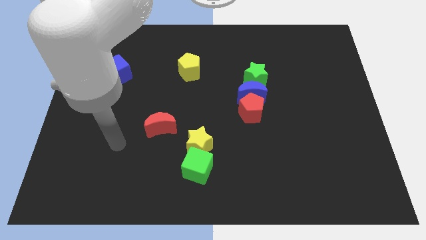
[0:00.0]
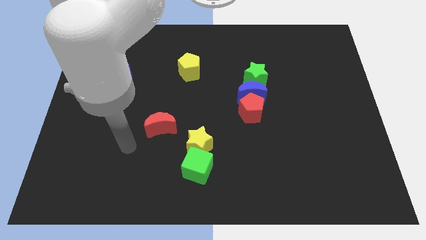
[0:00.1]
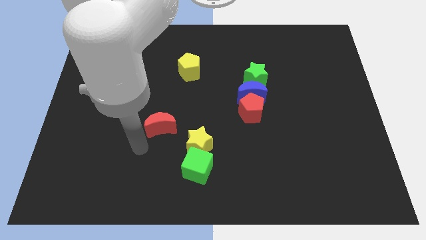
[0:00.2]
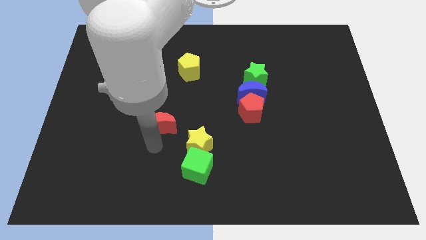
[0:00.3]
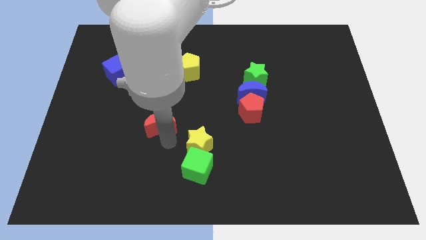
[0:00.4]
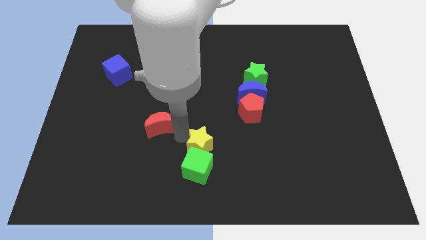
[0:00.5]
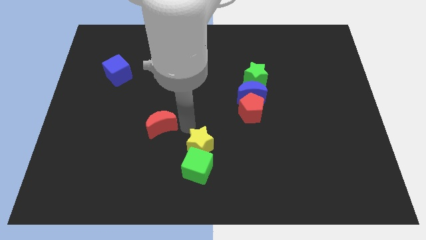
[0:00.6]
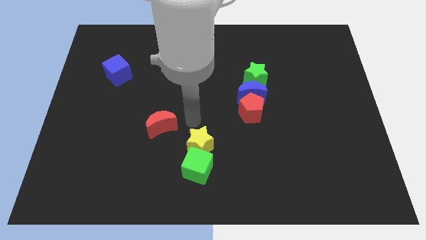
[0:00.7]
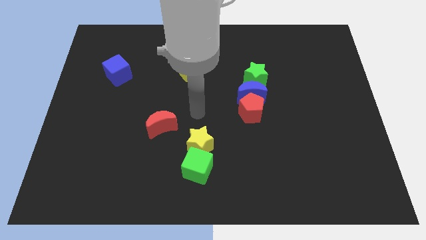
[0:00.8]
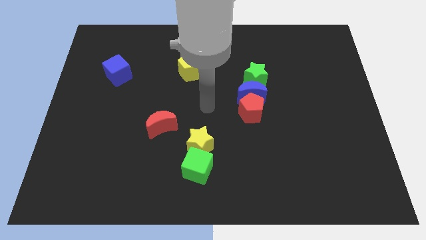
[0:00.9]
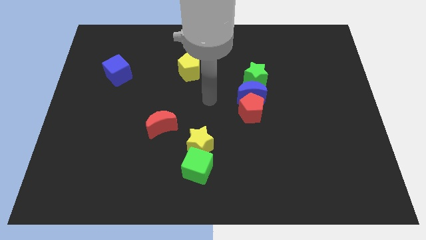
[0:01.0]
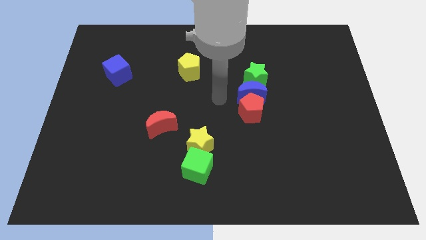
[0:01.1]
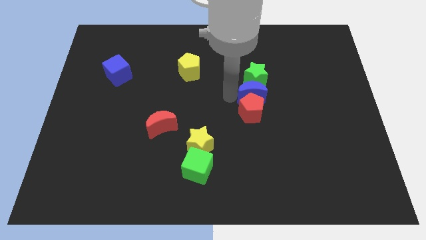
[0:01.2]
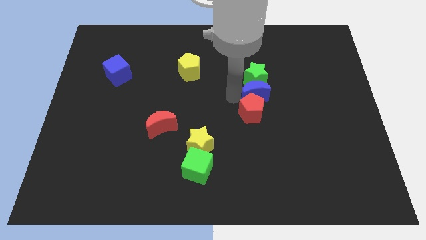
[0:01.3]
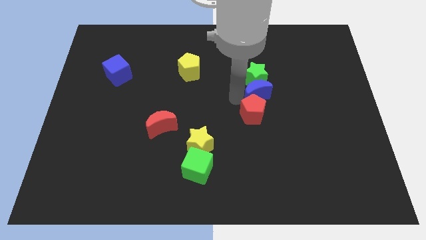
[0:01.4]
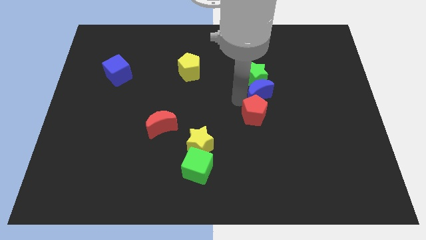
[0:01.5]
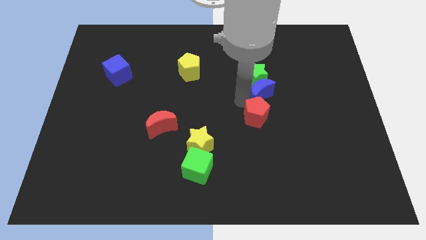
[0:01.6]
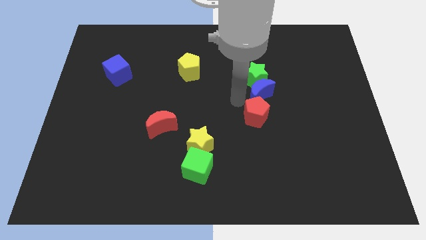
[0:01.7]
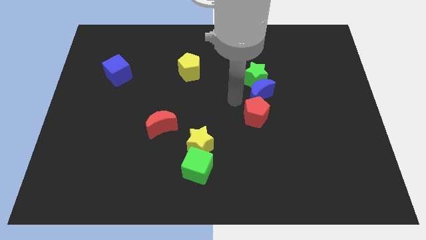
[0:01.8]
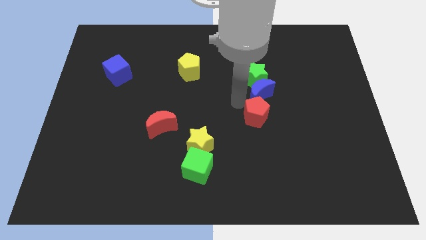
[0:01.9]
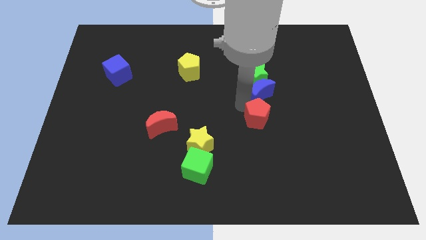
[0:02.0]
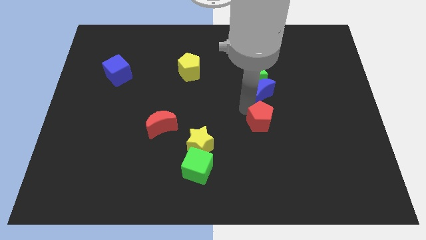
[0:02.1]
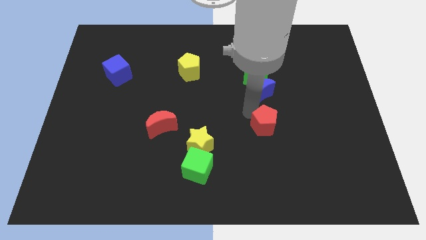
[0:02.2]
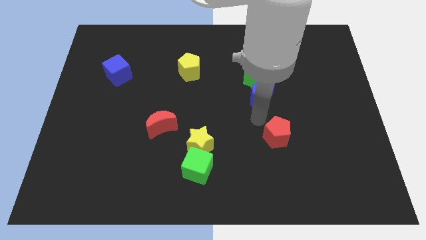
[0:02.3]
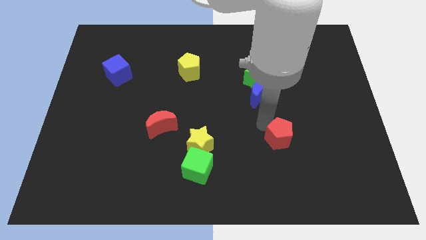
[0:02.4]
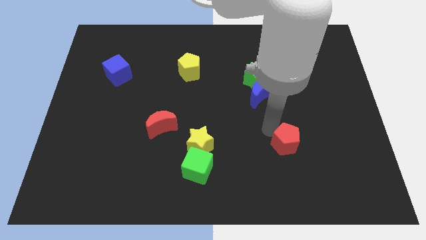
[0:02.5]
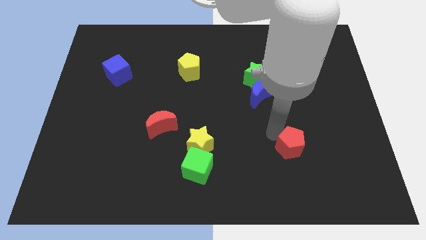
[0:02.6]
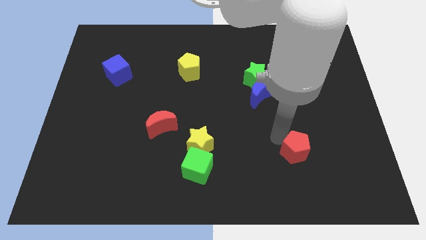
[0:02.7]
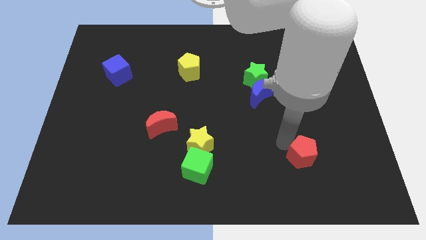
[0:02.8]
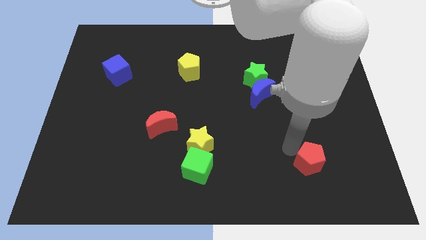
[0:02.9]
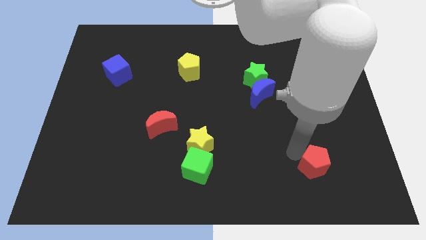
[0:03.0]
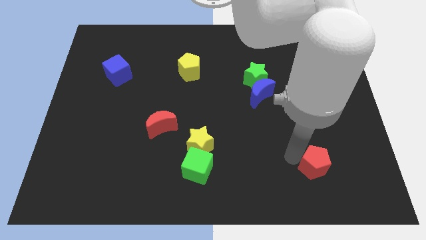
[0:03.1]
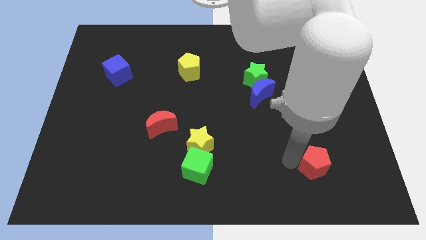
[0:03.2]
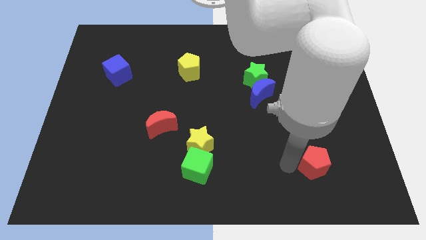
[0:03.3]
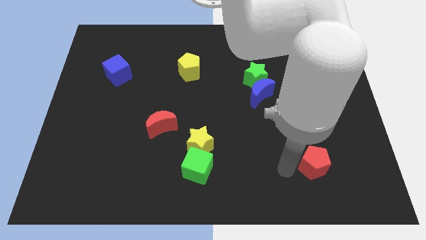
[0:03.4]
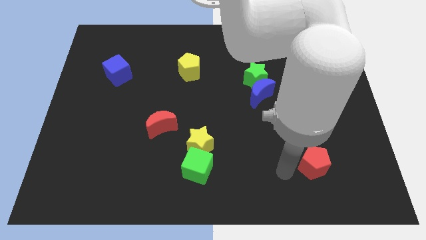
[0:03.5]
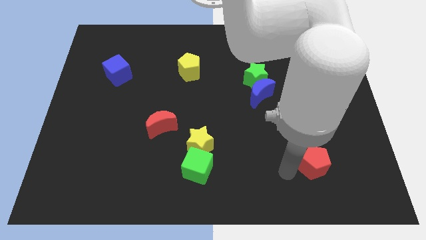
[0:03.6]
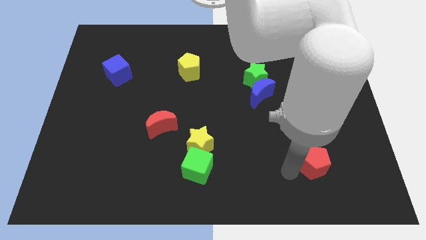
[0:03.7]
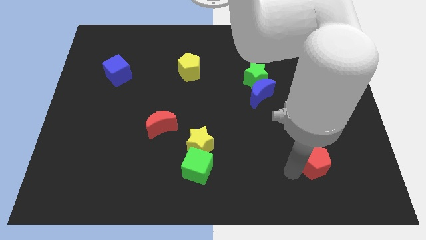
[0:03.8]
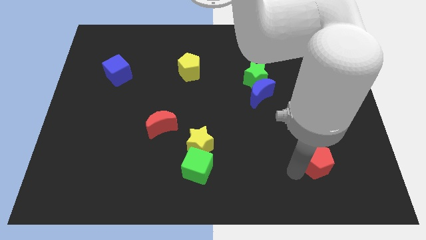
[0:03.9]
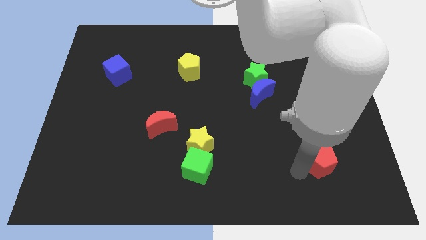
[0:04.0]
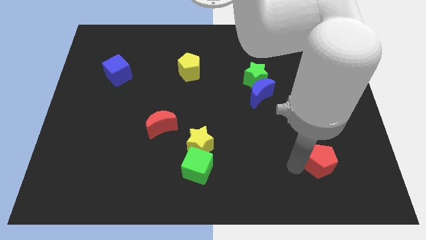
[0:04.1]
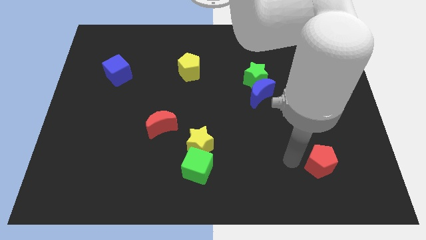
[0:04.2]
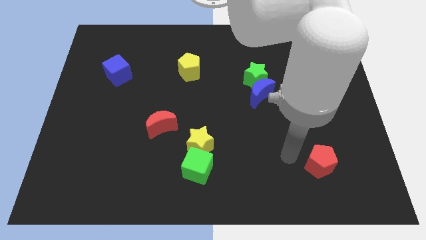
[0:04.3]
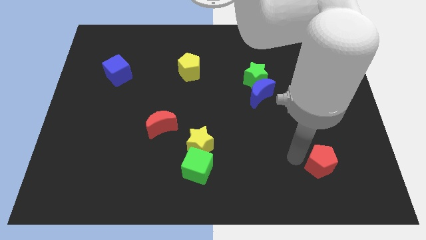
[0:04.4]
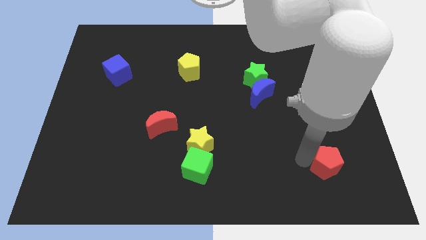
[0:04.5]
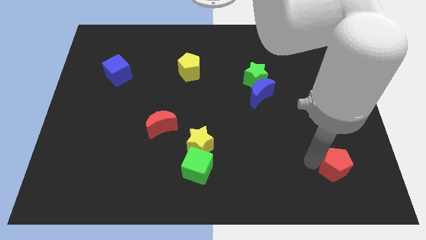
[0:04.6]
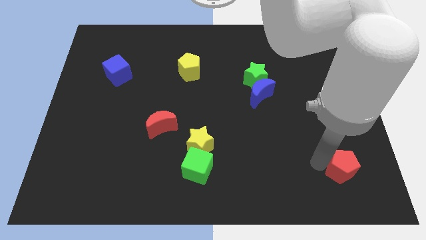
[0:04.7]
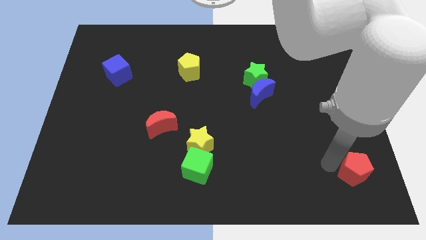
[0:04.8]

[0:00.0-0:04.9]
move the red pentagon to the lower right corner

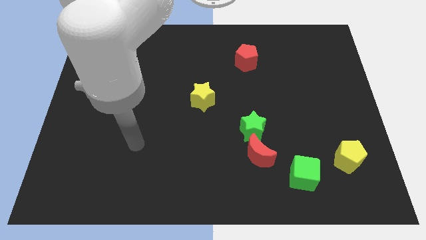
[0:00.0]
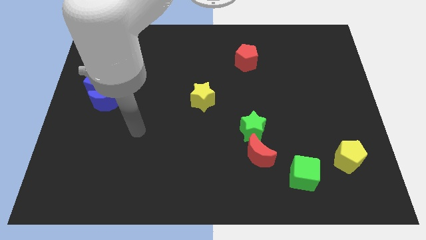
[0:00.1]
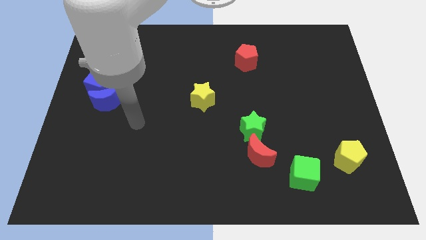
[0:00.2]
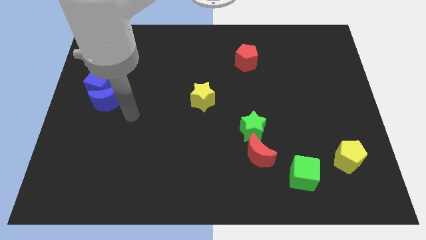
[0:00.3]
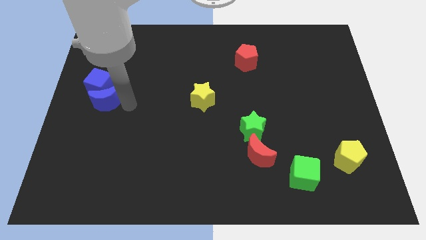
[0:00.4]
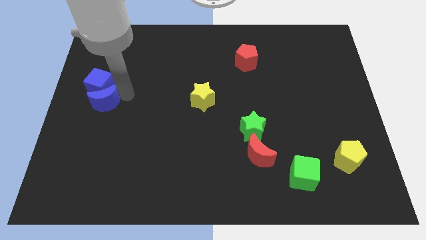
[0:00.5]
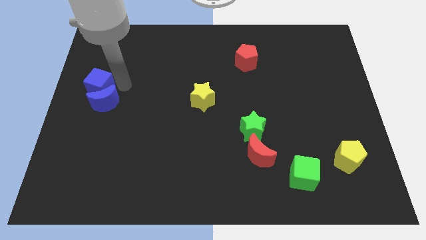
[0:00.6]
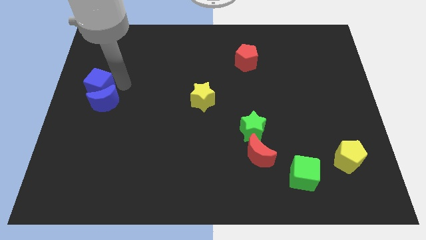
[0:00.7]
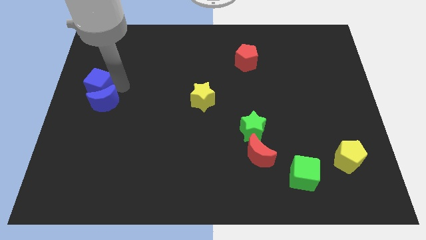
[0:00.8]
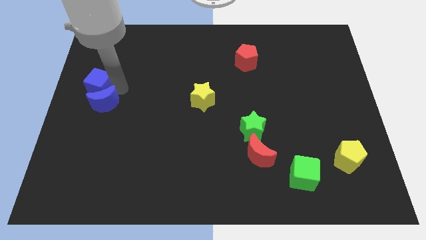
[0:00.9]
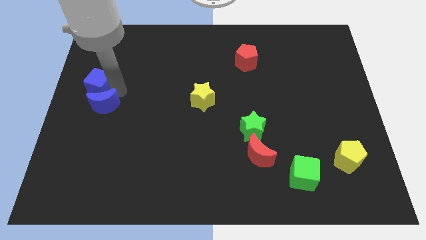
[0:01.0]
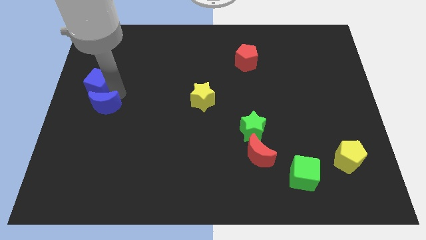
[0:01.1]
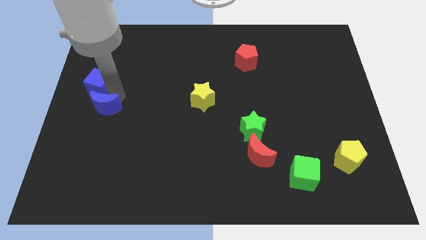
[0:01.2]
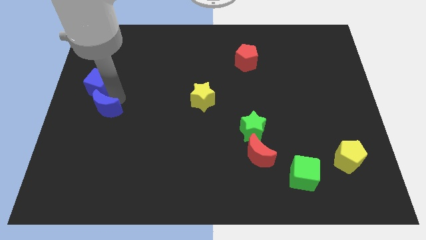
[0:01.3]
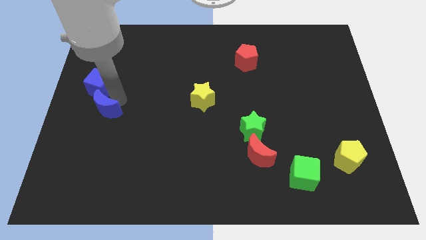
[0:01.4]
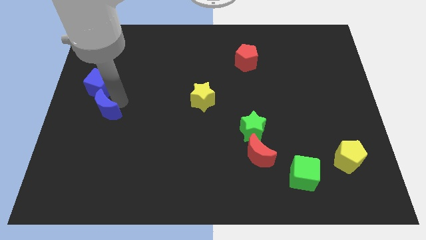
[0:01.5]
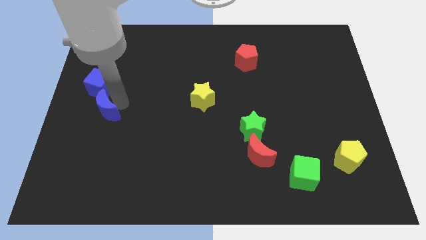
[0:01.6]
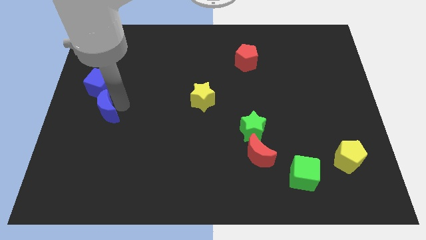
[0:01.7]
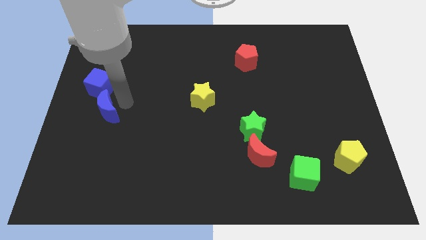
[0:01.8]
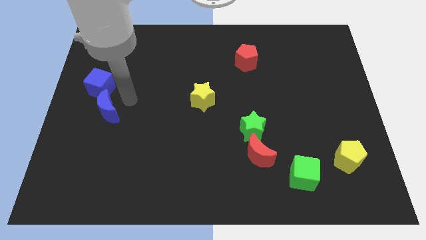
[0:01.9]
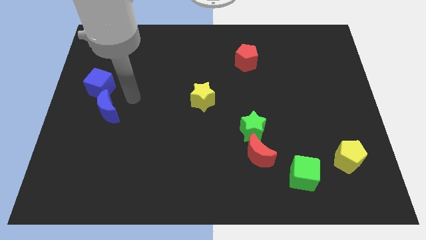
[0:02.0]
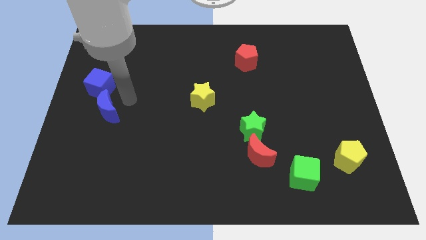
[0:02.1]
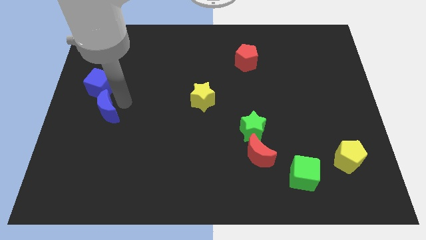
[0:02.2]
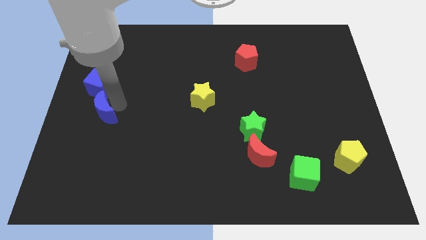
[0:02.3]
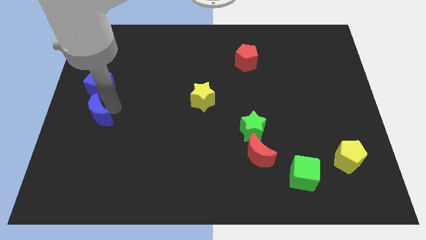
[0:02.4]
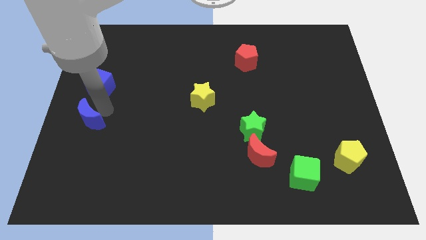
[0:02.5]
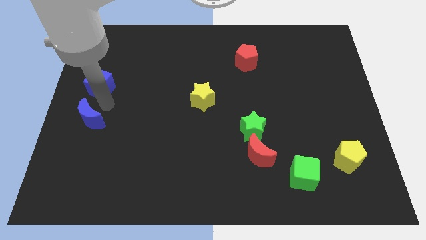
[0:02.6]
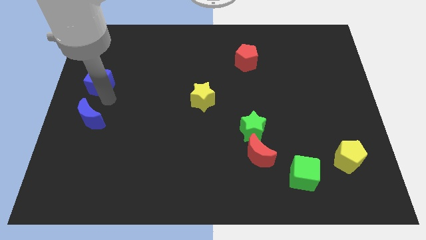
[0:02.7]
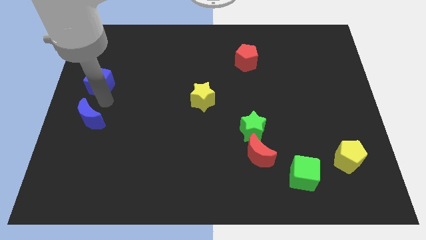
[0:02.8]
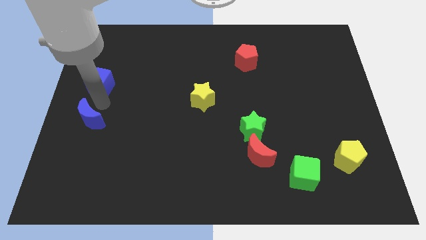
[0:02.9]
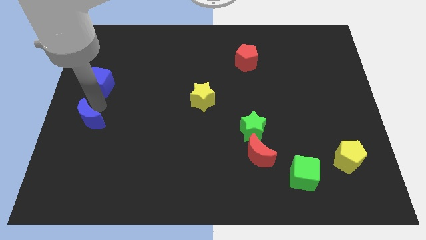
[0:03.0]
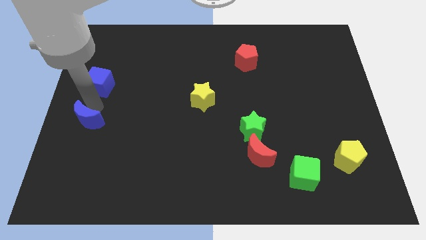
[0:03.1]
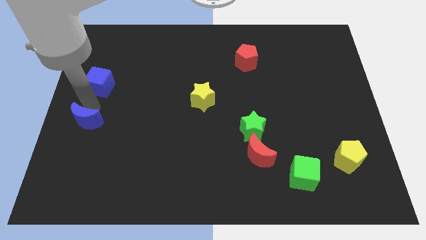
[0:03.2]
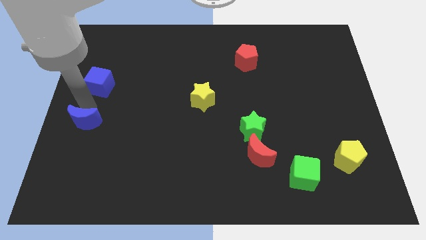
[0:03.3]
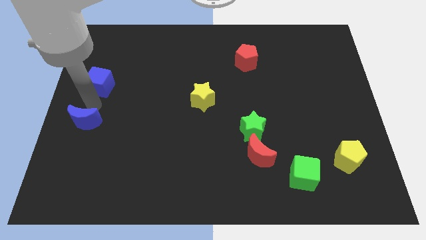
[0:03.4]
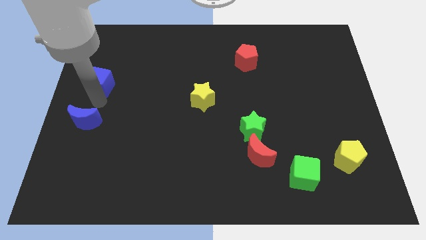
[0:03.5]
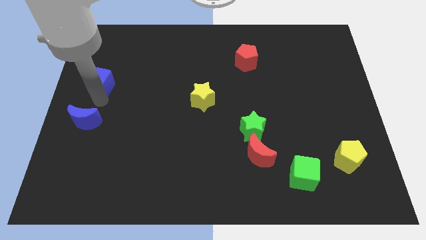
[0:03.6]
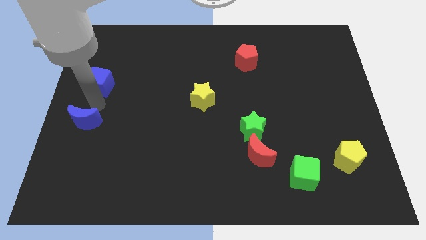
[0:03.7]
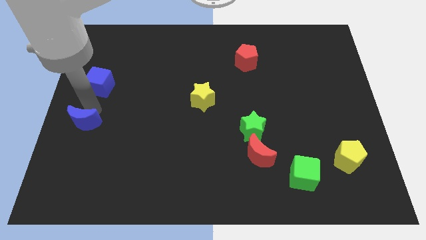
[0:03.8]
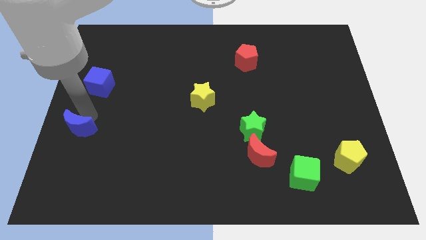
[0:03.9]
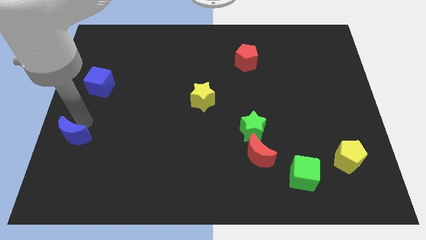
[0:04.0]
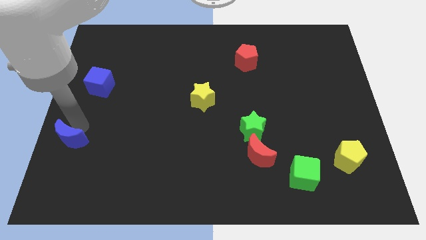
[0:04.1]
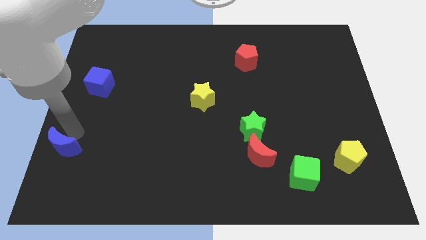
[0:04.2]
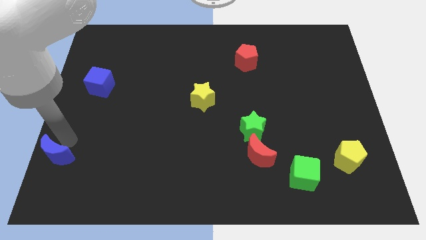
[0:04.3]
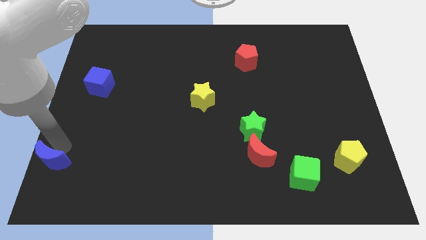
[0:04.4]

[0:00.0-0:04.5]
slide the blue moon to the lower left corner
